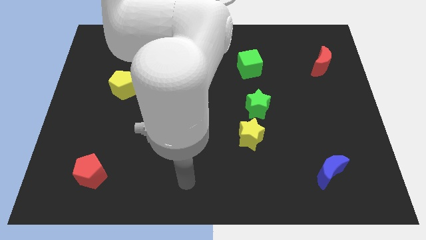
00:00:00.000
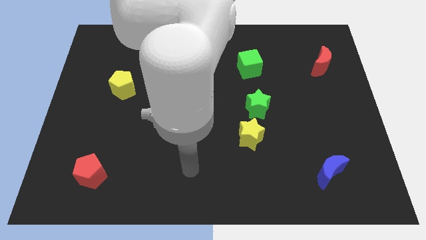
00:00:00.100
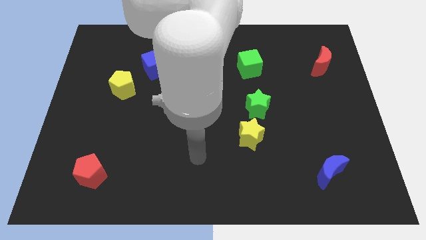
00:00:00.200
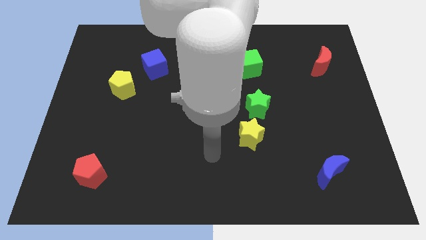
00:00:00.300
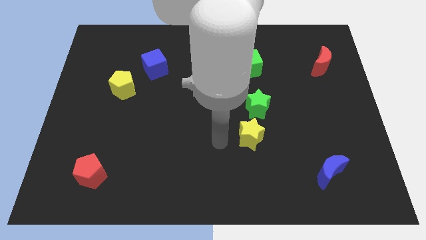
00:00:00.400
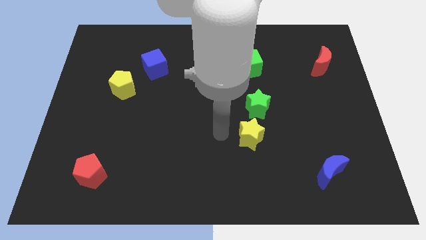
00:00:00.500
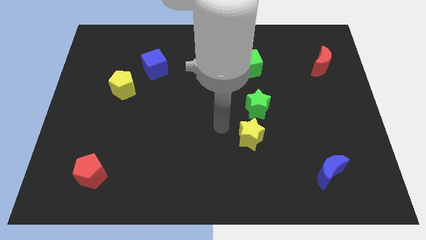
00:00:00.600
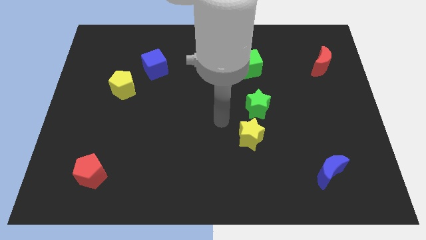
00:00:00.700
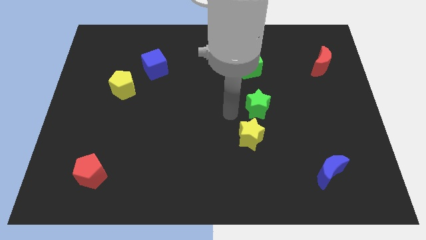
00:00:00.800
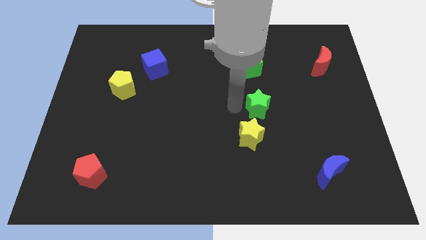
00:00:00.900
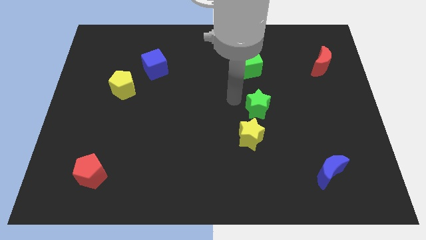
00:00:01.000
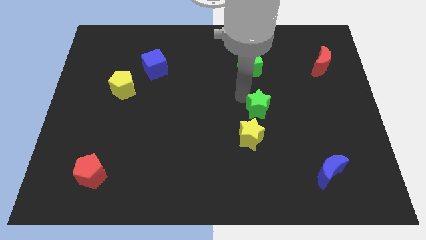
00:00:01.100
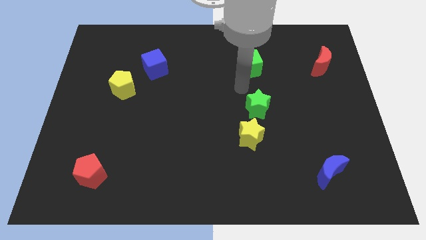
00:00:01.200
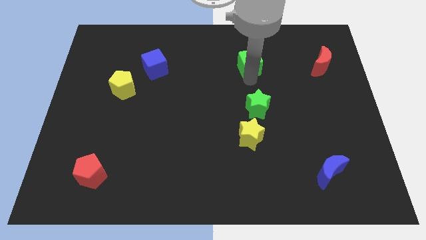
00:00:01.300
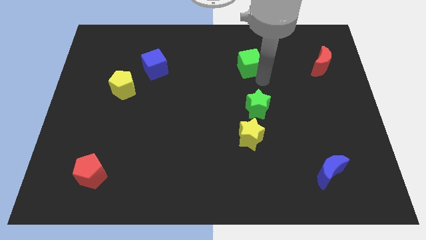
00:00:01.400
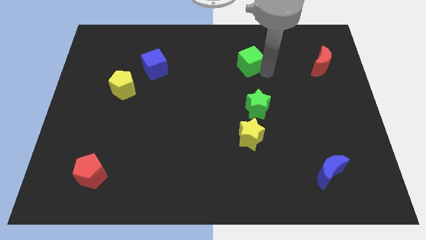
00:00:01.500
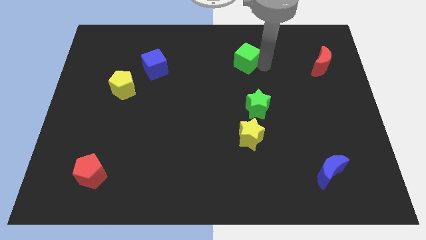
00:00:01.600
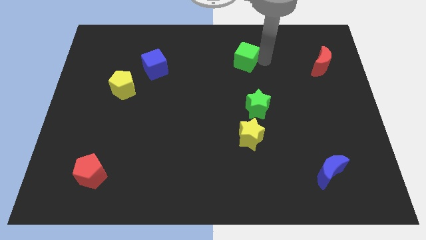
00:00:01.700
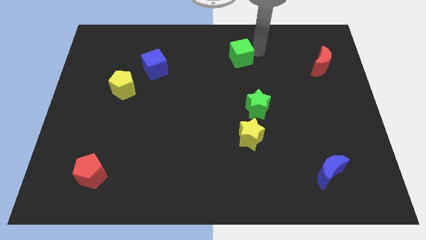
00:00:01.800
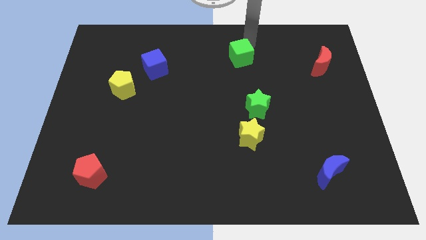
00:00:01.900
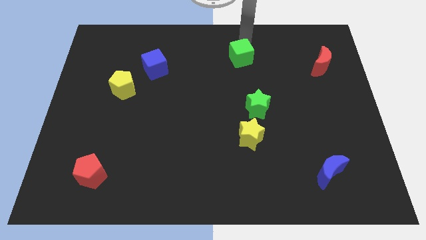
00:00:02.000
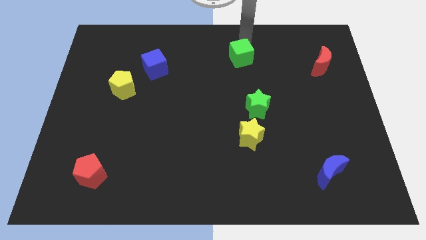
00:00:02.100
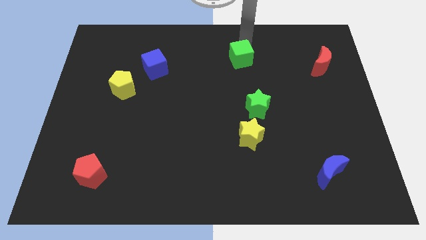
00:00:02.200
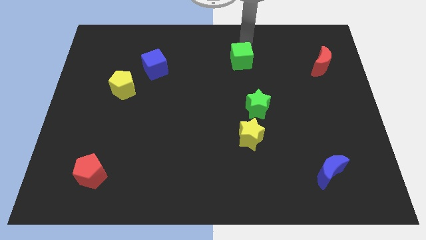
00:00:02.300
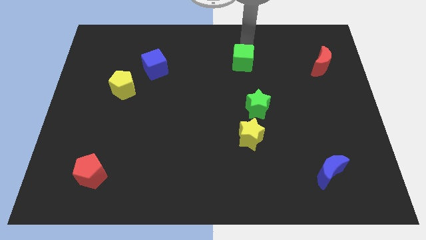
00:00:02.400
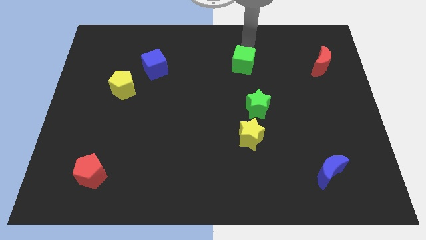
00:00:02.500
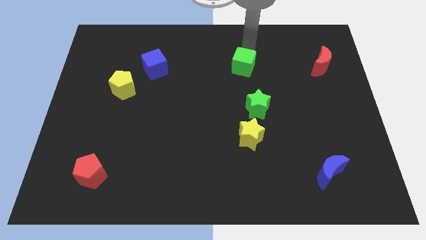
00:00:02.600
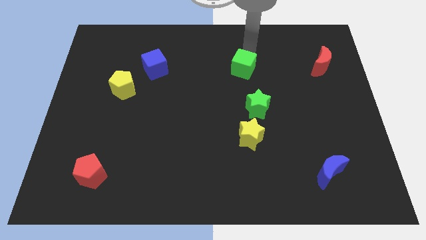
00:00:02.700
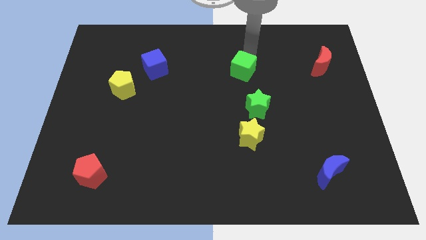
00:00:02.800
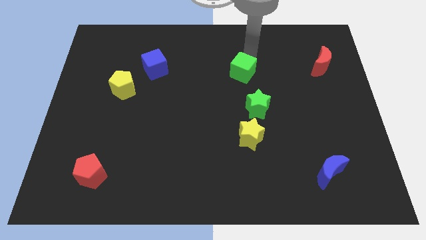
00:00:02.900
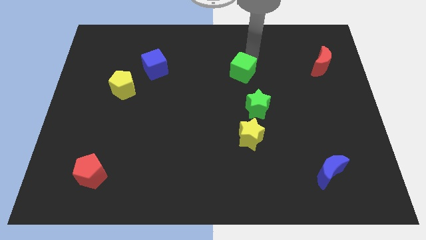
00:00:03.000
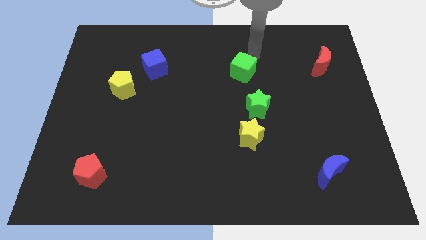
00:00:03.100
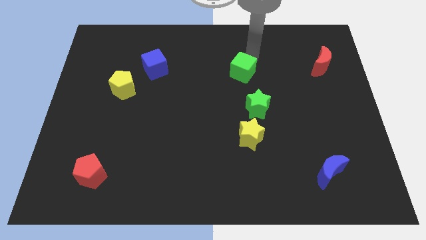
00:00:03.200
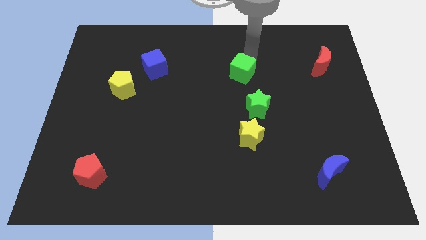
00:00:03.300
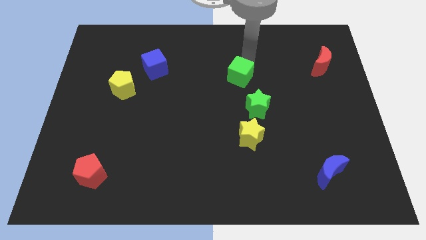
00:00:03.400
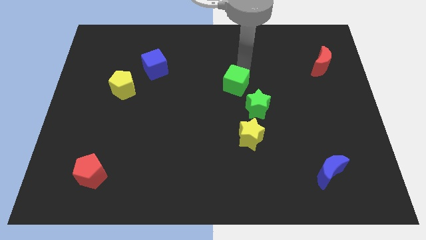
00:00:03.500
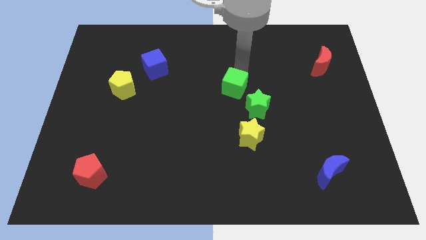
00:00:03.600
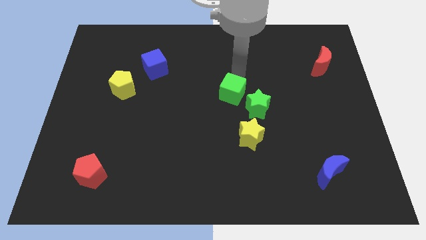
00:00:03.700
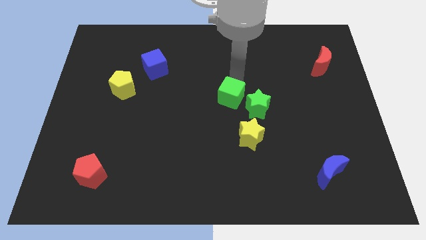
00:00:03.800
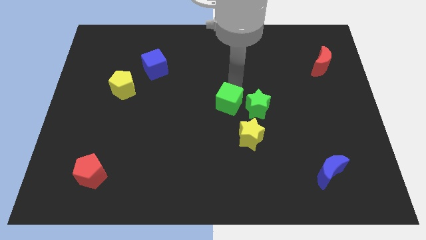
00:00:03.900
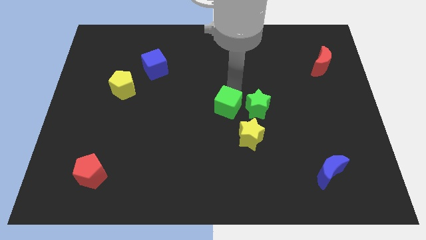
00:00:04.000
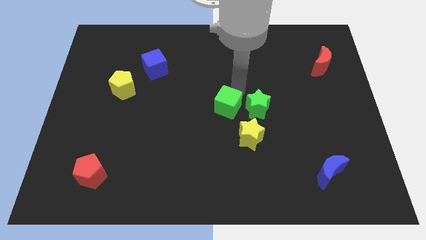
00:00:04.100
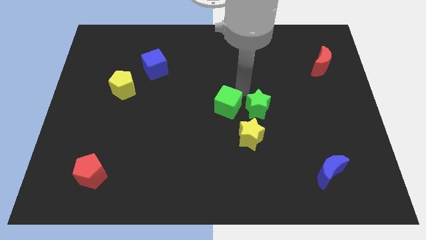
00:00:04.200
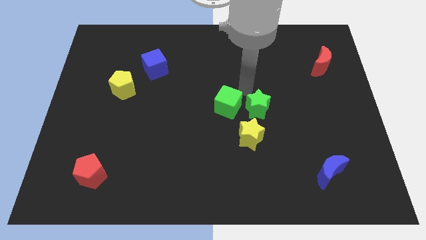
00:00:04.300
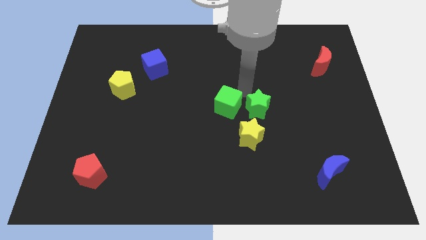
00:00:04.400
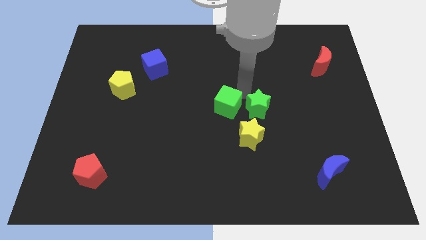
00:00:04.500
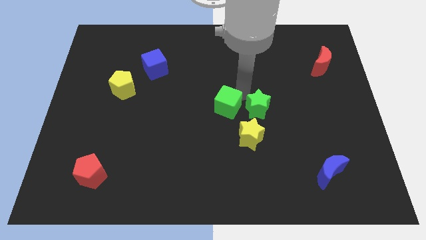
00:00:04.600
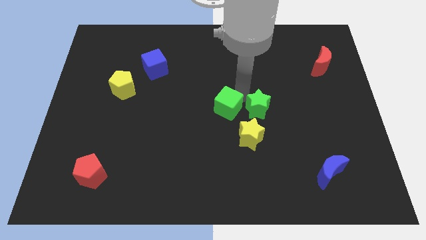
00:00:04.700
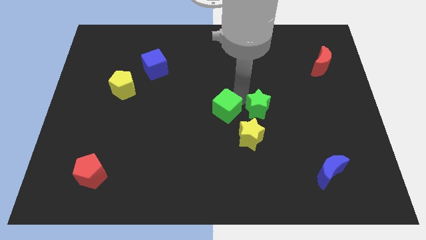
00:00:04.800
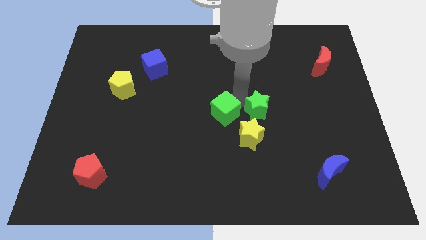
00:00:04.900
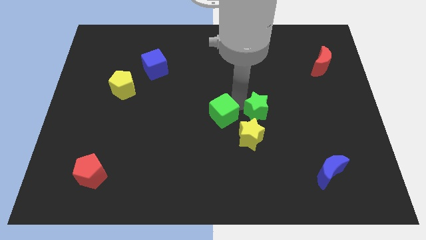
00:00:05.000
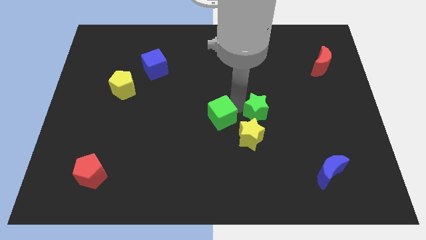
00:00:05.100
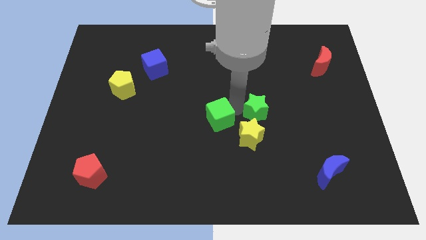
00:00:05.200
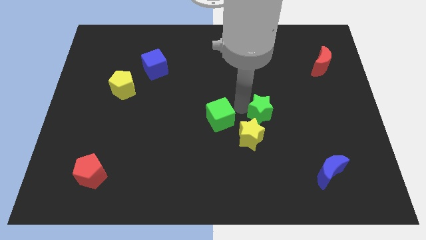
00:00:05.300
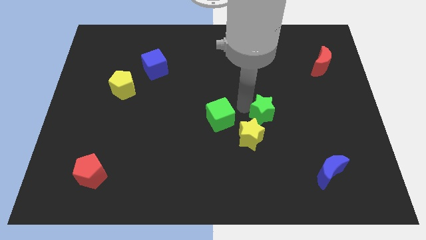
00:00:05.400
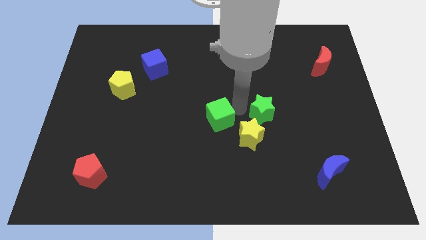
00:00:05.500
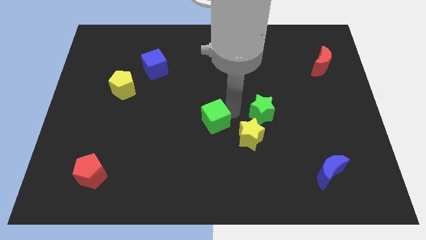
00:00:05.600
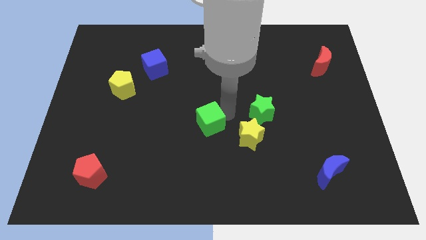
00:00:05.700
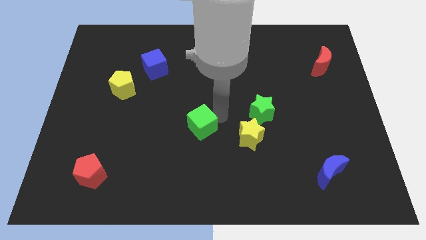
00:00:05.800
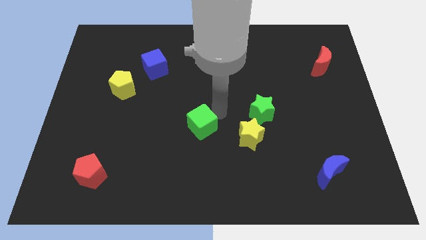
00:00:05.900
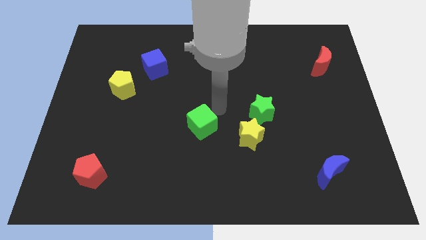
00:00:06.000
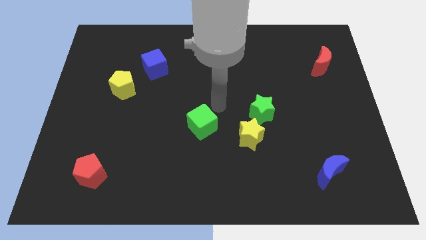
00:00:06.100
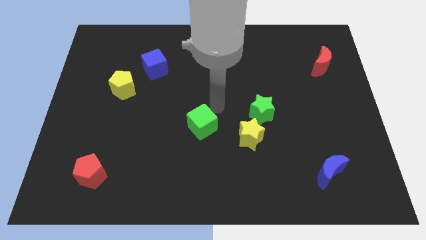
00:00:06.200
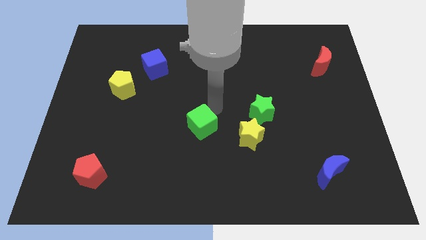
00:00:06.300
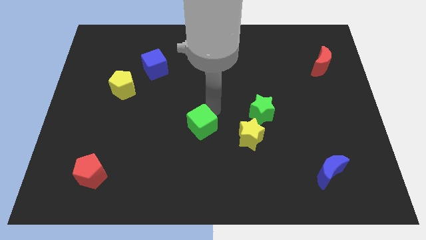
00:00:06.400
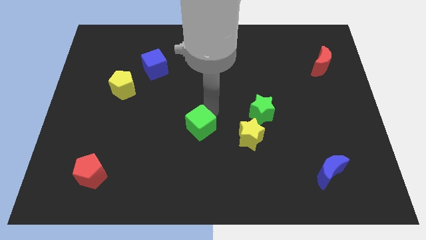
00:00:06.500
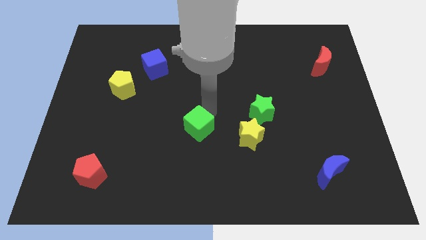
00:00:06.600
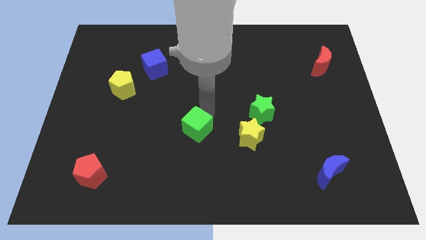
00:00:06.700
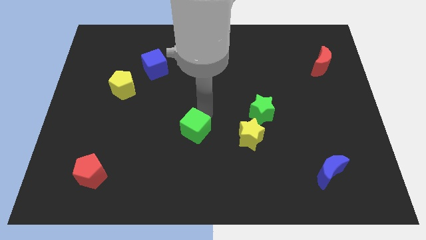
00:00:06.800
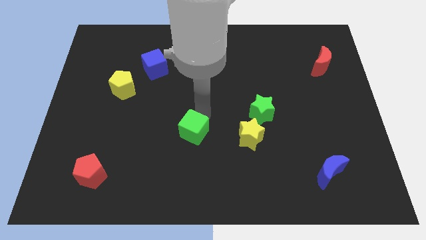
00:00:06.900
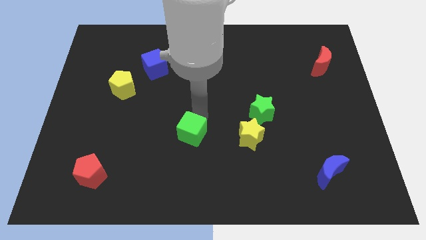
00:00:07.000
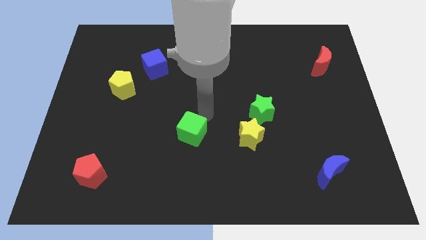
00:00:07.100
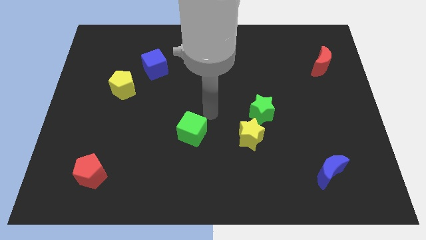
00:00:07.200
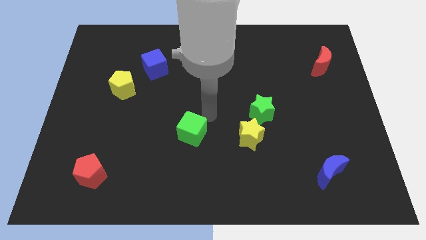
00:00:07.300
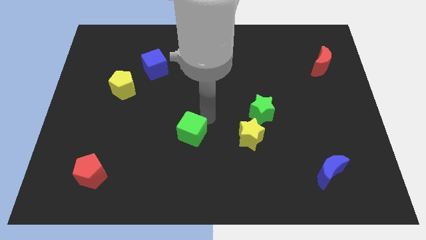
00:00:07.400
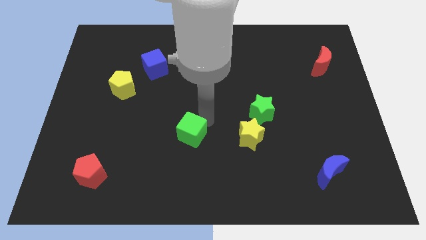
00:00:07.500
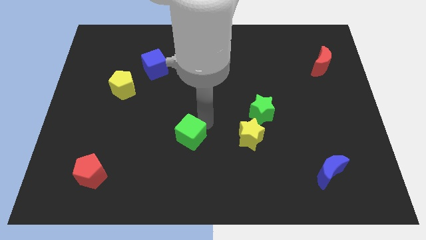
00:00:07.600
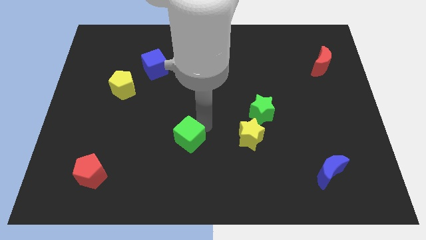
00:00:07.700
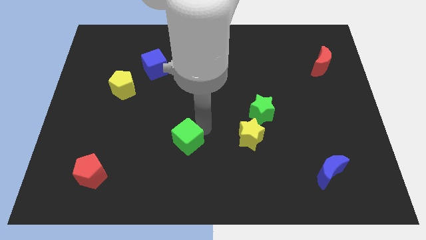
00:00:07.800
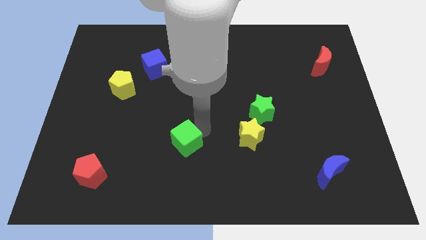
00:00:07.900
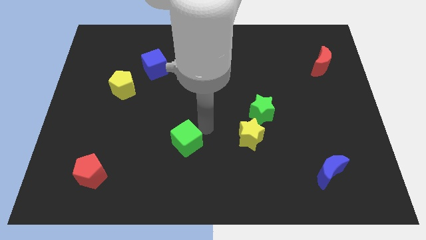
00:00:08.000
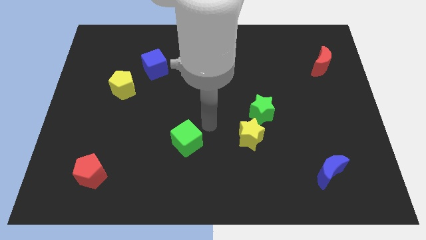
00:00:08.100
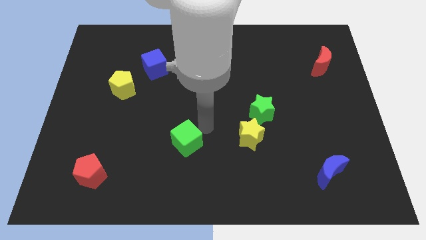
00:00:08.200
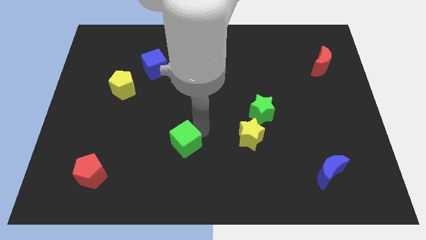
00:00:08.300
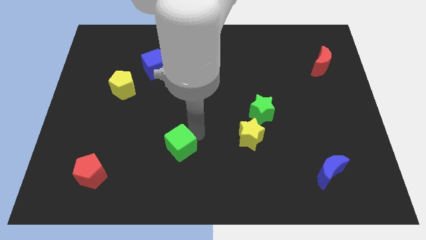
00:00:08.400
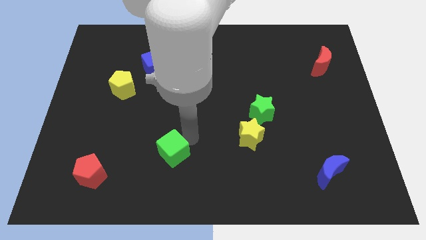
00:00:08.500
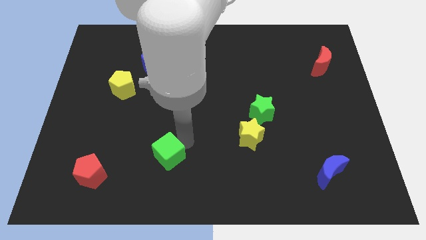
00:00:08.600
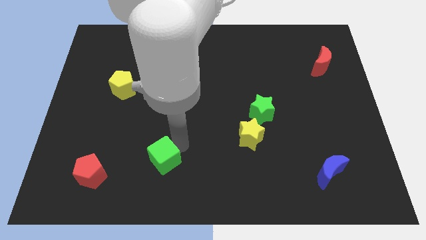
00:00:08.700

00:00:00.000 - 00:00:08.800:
push the green cube just right of the red pentagon
